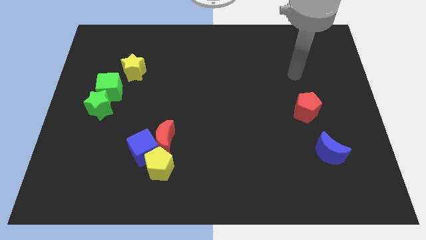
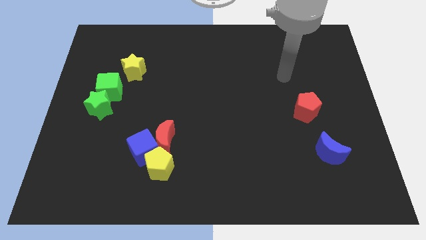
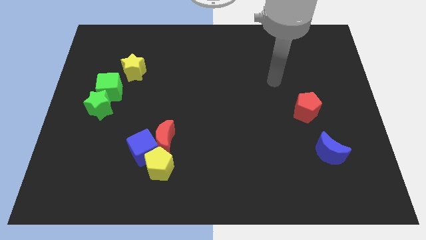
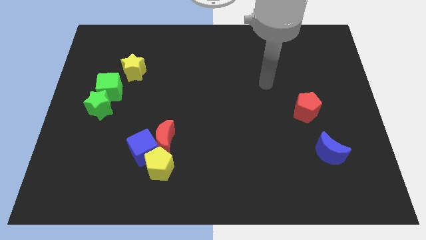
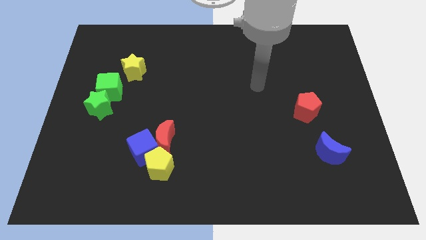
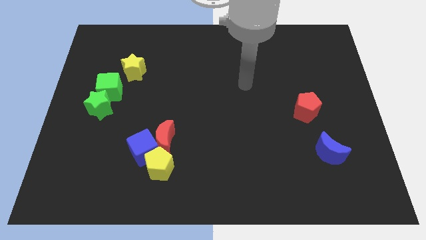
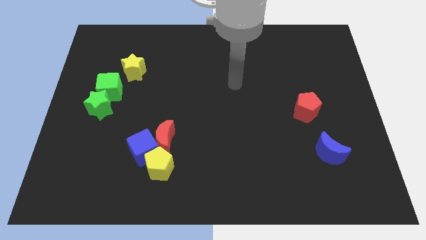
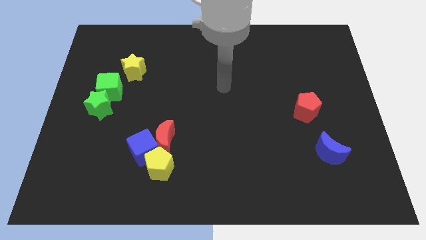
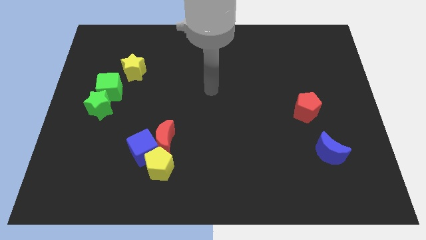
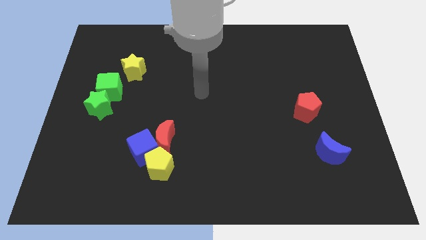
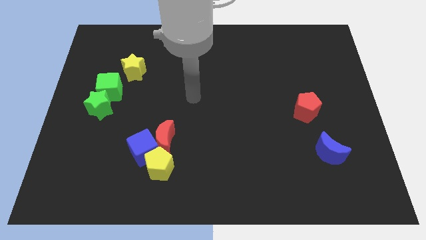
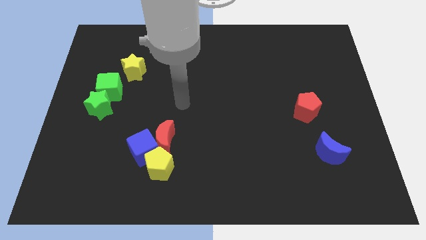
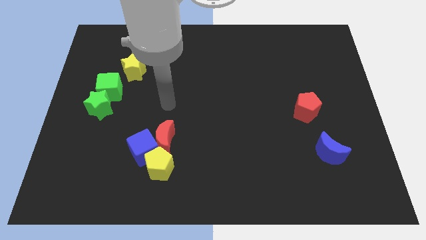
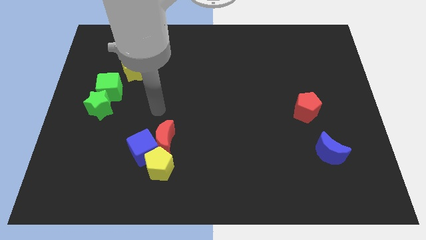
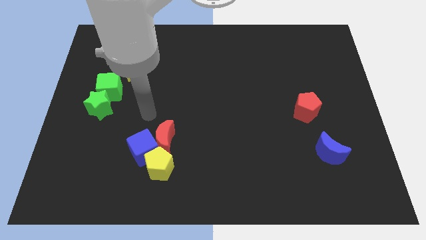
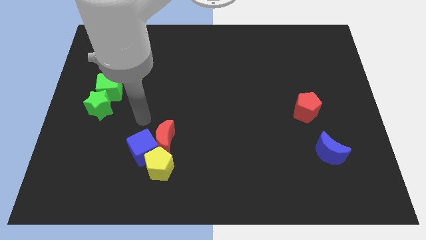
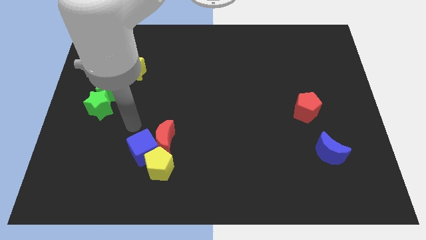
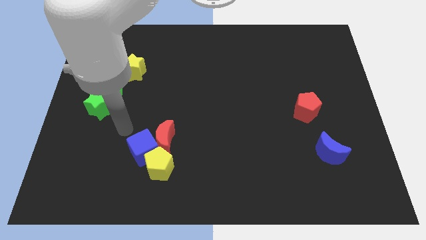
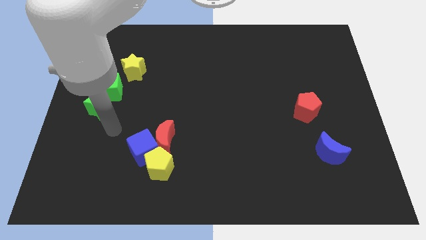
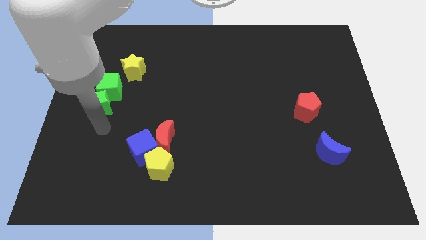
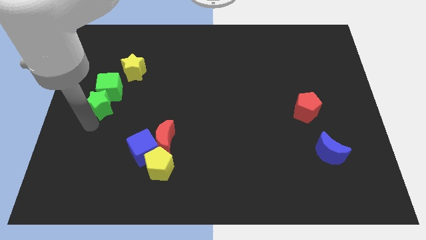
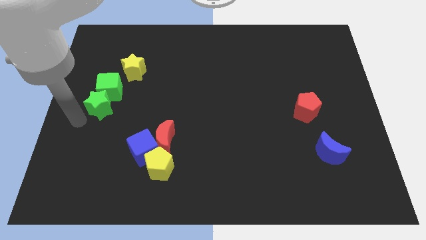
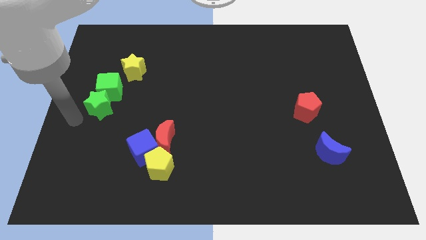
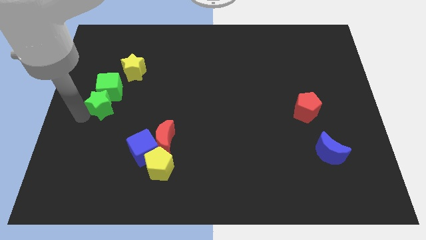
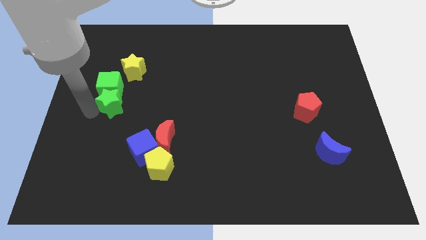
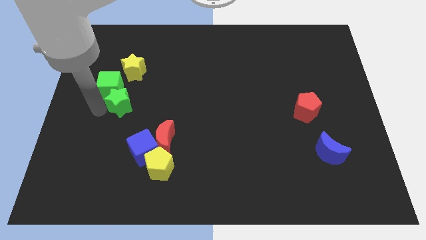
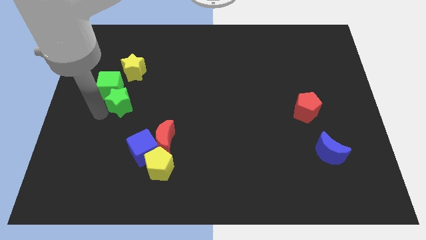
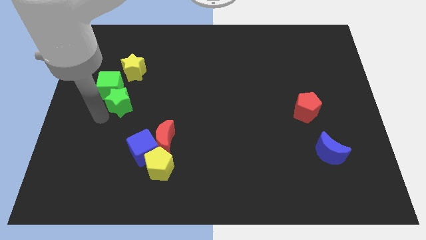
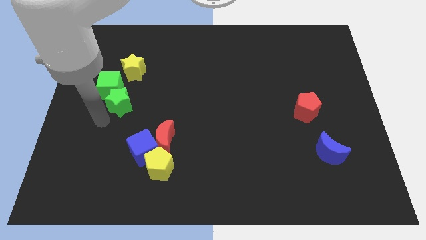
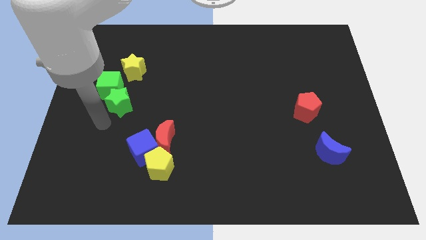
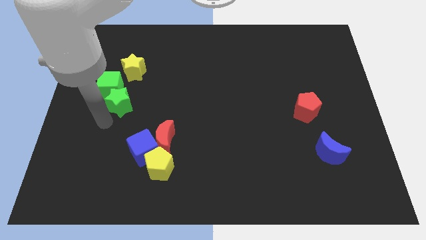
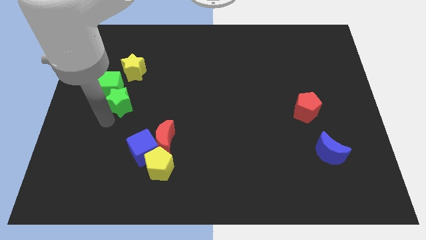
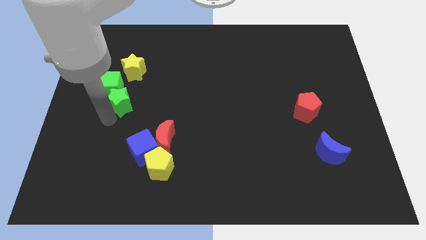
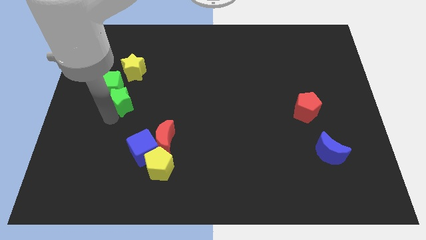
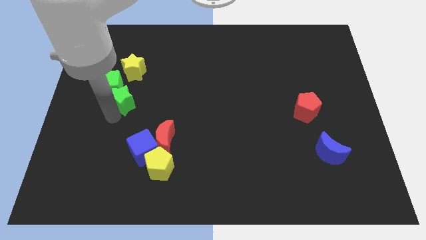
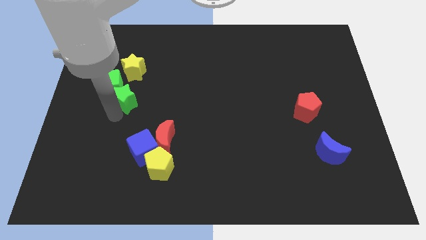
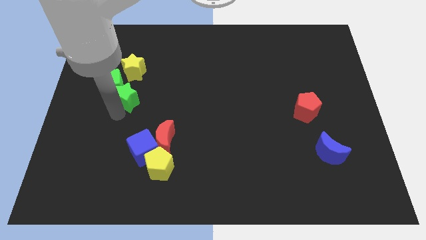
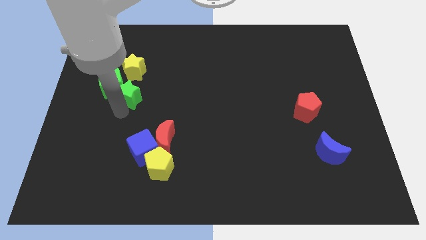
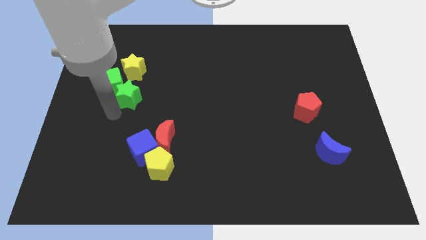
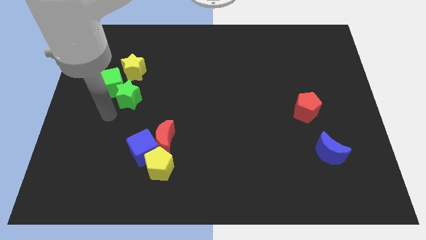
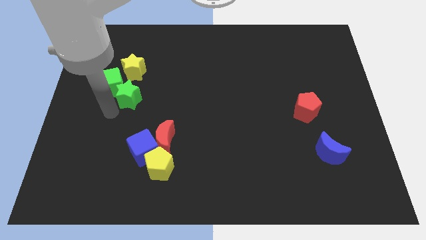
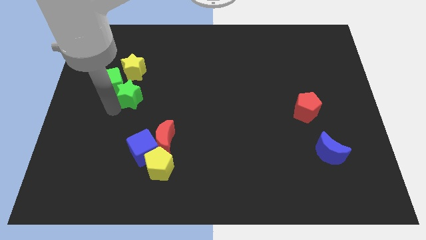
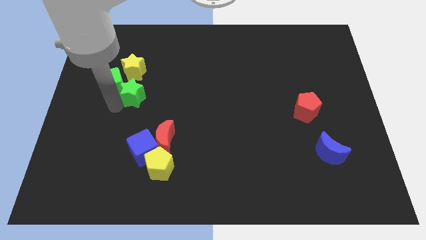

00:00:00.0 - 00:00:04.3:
slightly slide the green star diagonally upwards and to the right

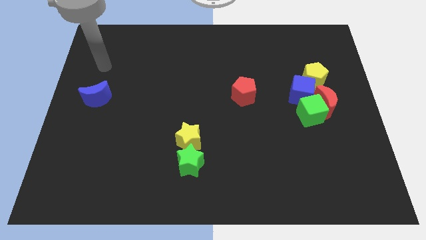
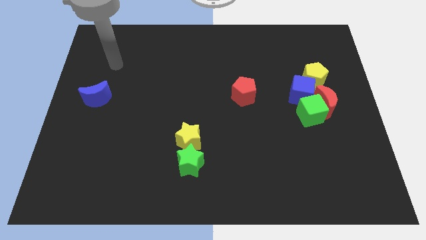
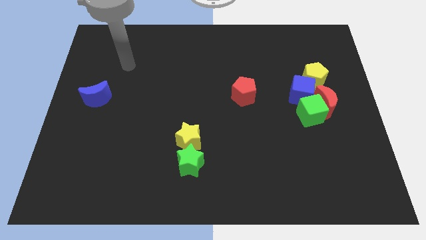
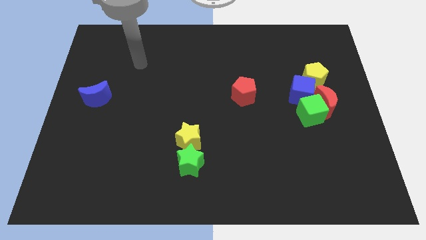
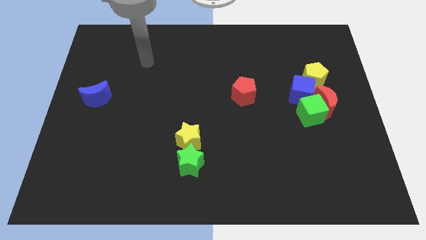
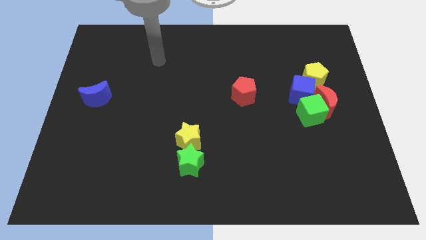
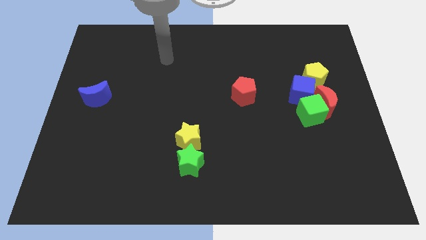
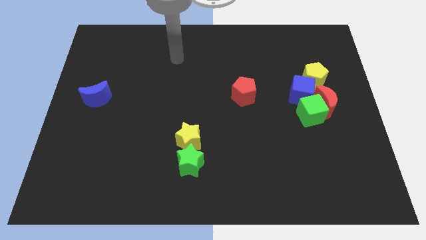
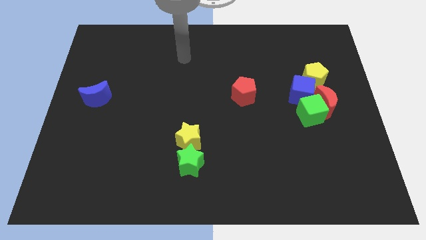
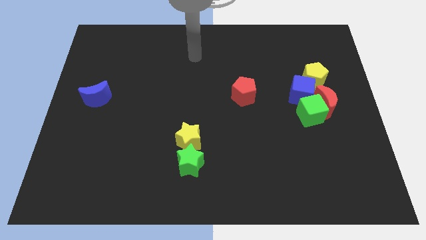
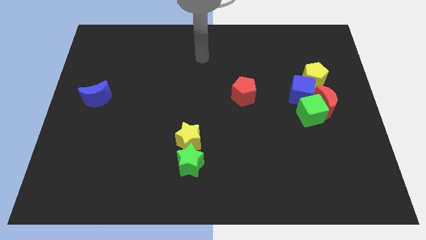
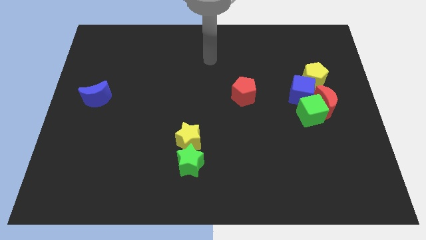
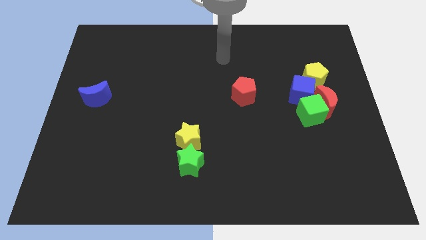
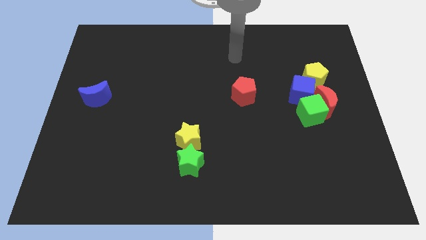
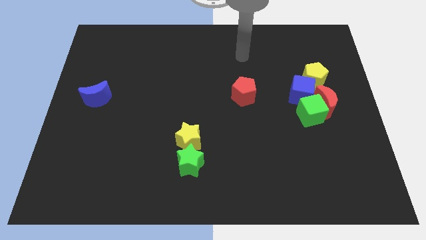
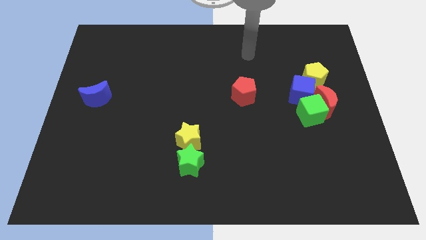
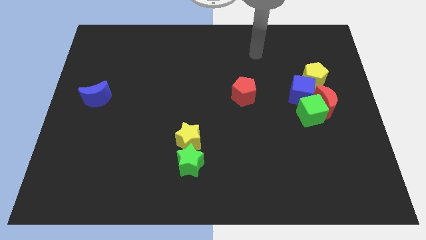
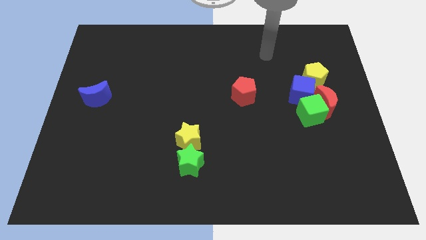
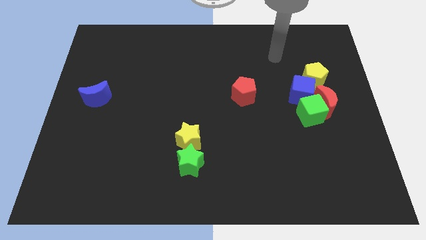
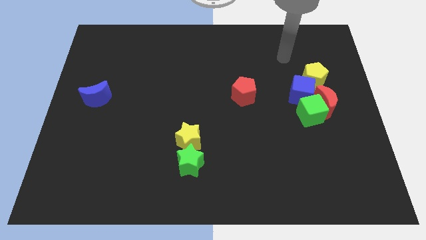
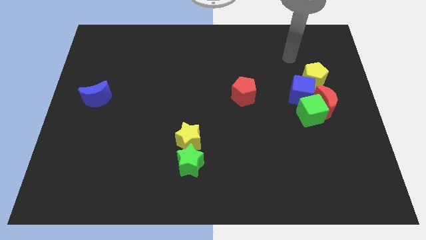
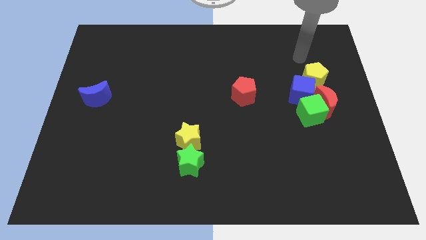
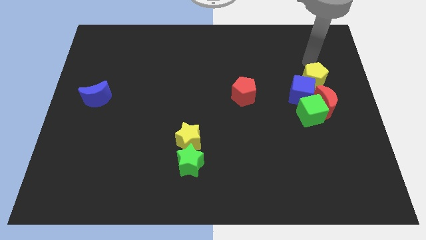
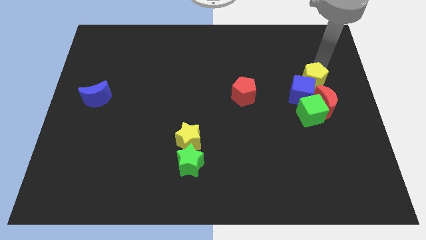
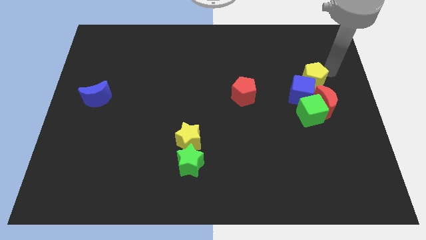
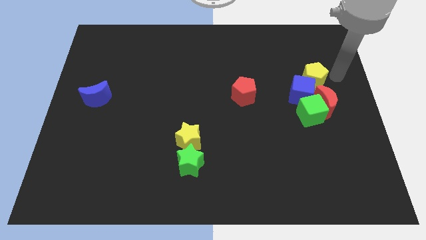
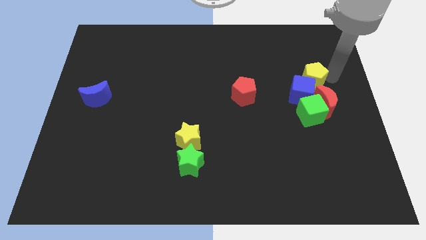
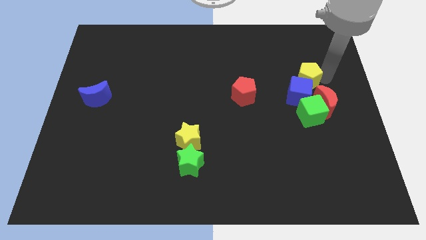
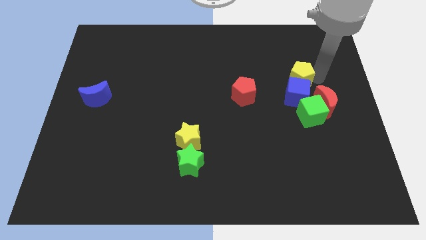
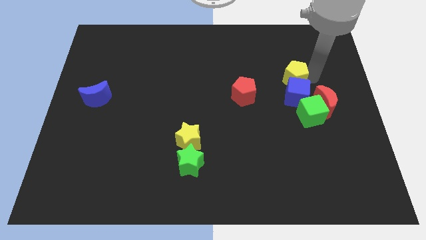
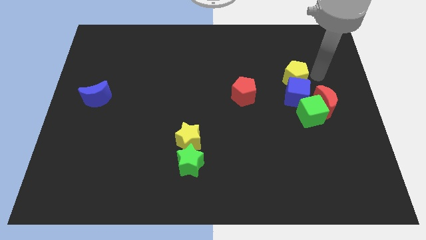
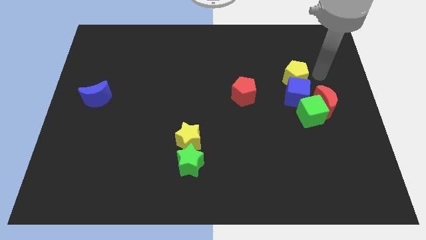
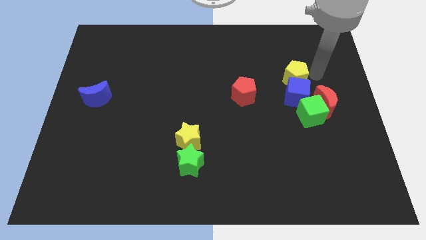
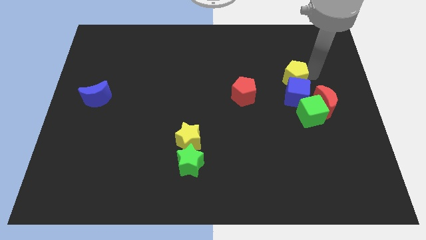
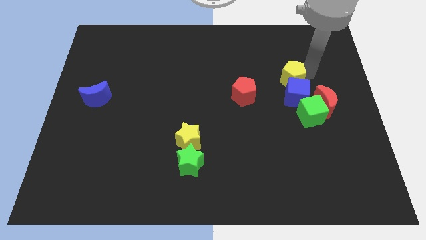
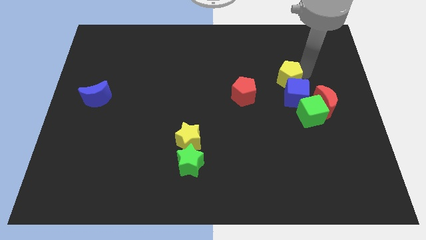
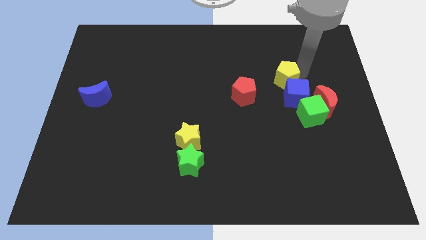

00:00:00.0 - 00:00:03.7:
move the yellow pentagon to the left a little bit

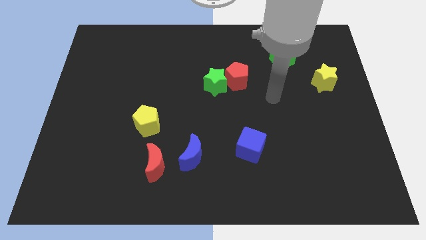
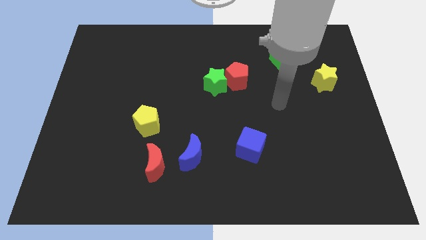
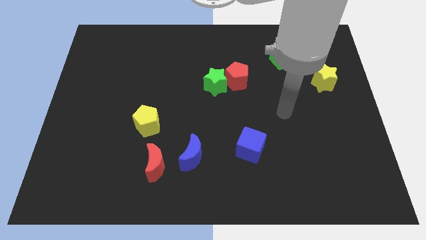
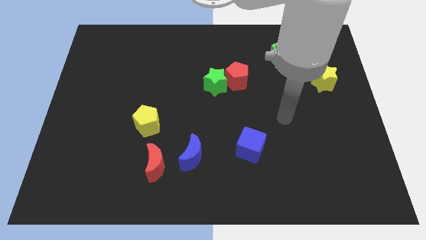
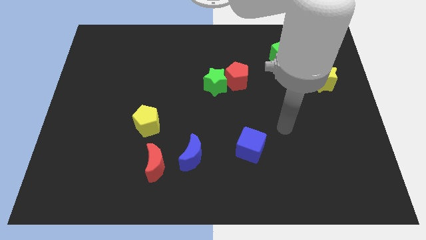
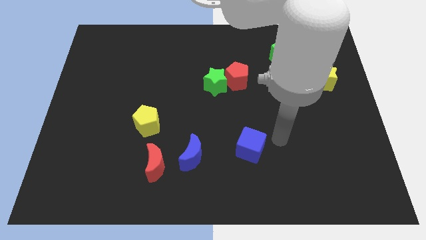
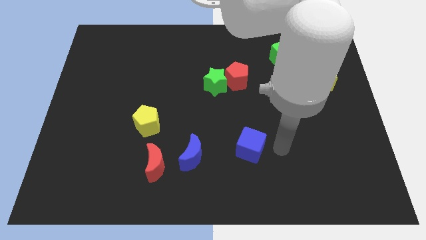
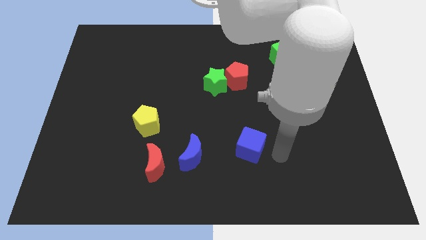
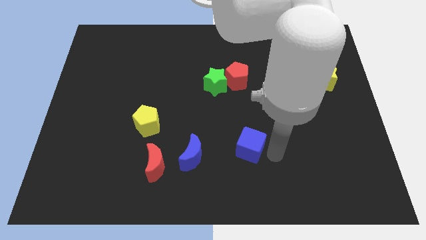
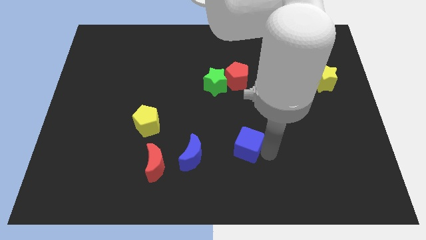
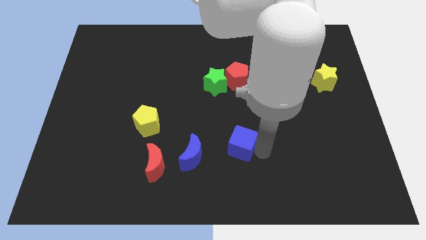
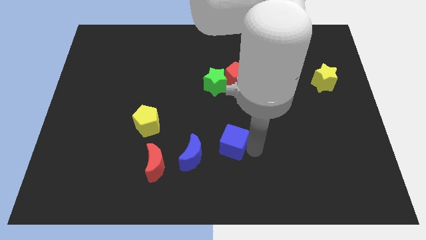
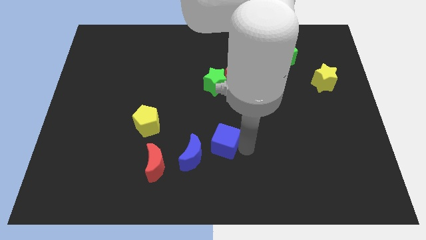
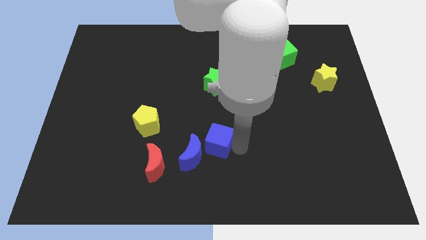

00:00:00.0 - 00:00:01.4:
move the blue cube a little left
